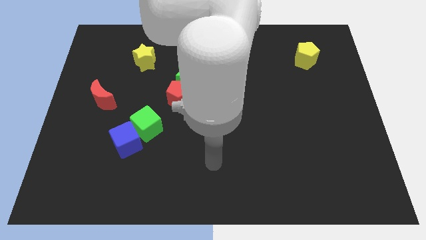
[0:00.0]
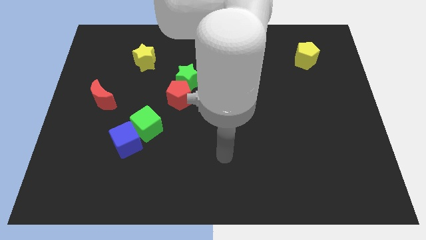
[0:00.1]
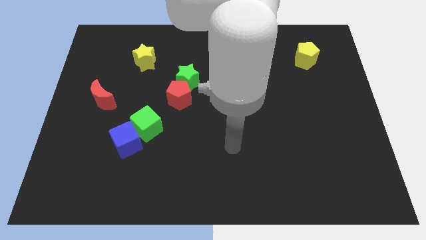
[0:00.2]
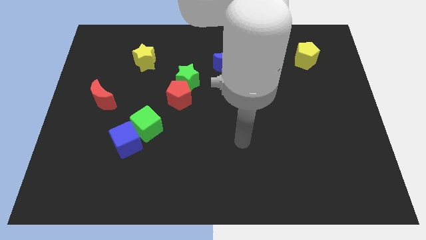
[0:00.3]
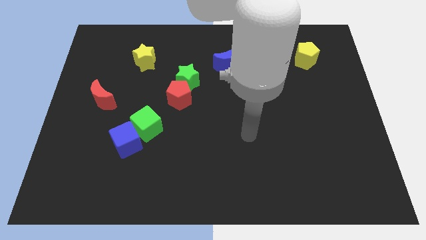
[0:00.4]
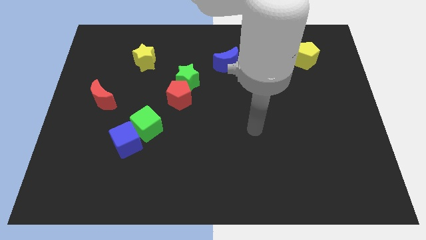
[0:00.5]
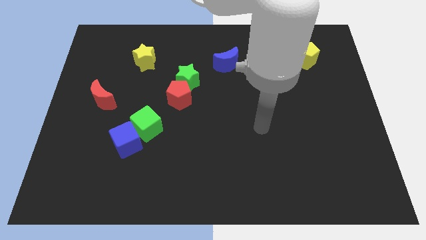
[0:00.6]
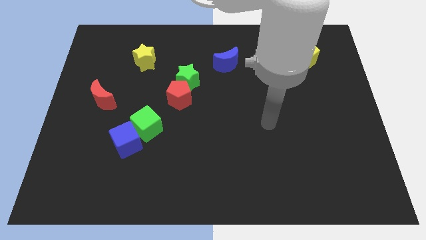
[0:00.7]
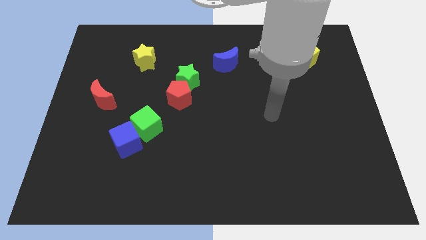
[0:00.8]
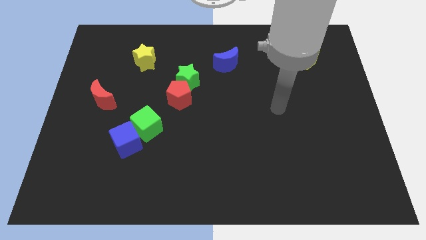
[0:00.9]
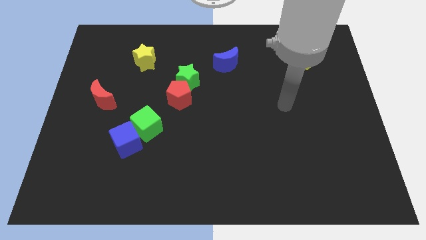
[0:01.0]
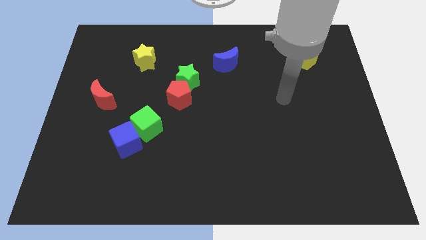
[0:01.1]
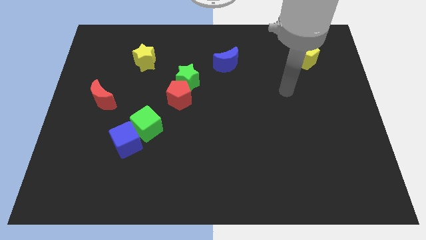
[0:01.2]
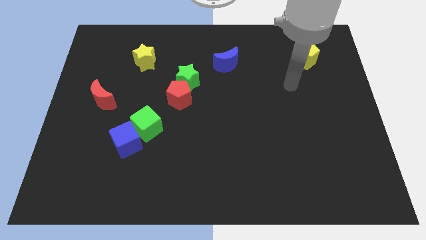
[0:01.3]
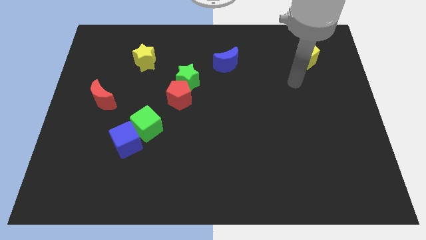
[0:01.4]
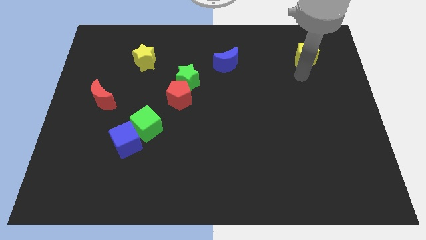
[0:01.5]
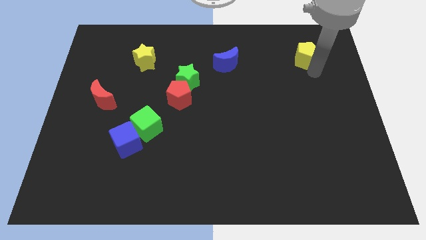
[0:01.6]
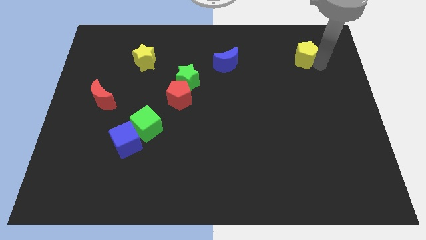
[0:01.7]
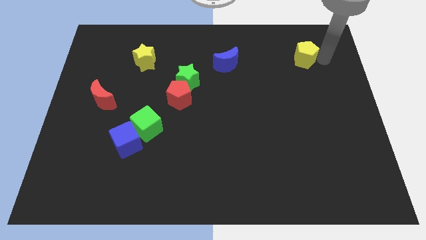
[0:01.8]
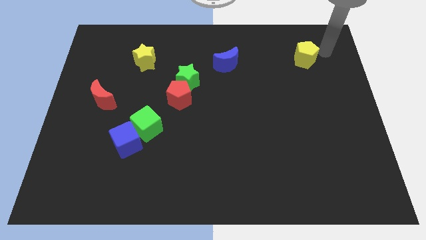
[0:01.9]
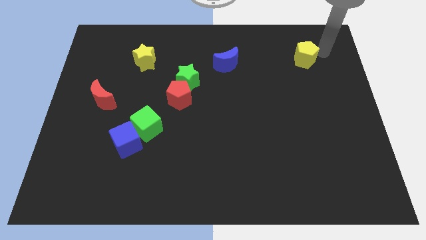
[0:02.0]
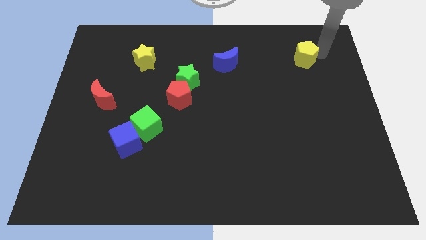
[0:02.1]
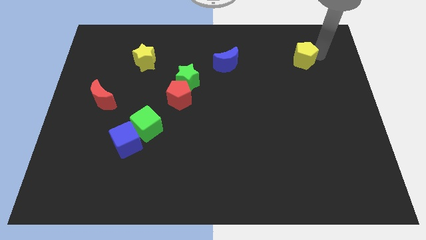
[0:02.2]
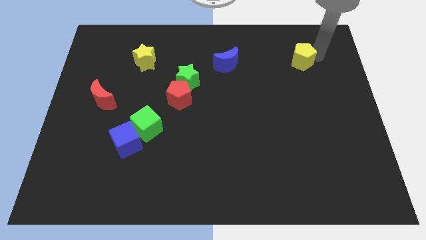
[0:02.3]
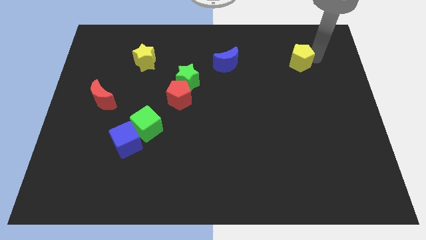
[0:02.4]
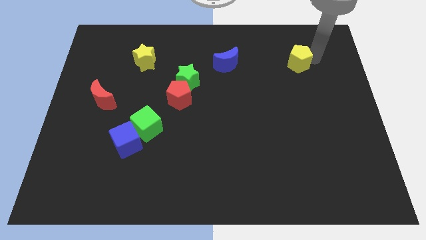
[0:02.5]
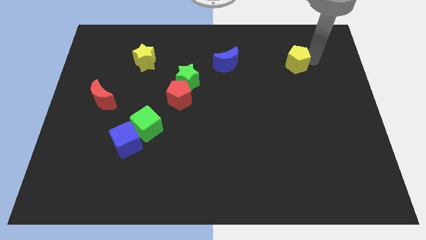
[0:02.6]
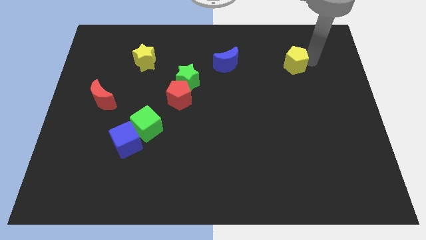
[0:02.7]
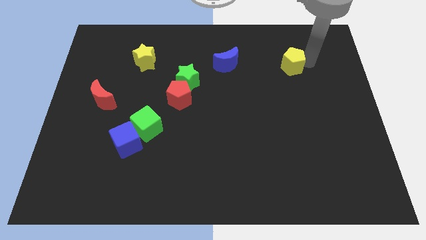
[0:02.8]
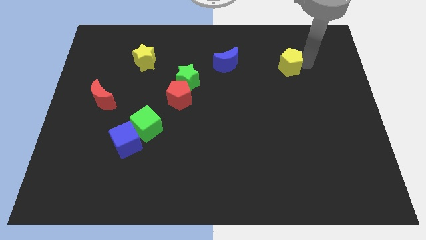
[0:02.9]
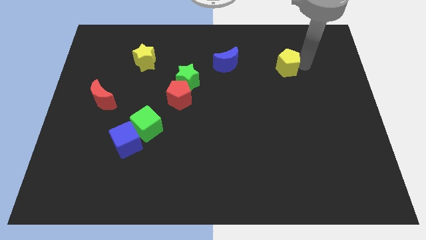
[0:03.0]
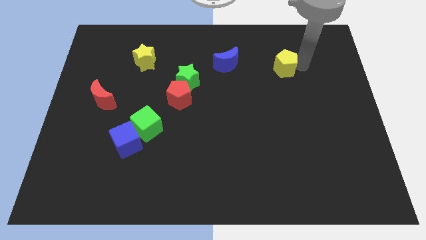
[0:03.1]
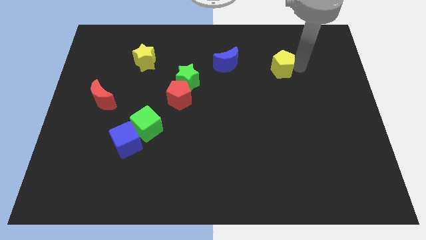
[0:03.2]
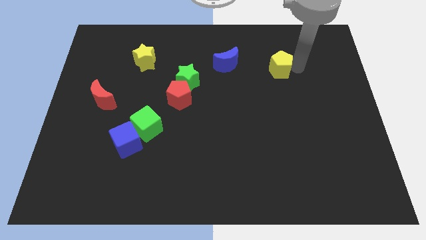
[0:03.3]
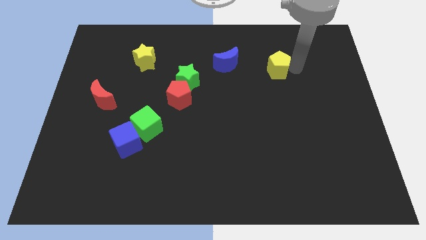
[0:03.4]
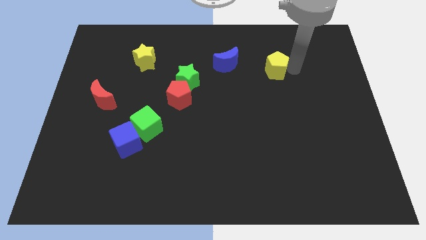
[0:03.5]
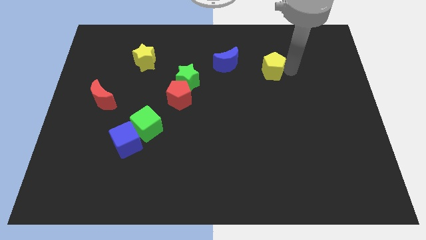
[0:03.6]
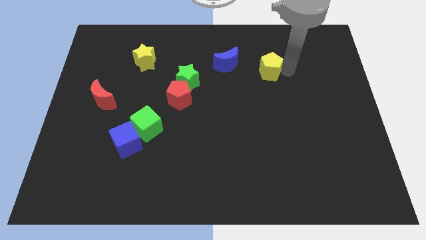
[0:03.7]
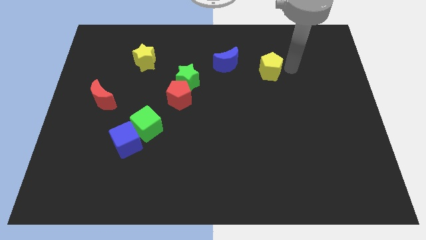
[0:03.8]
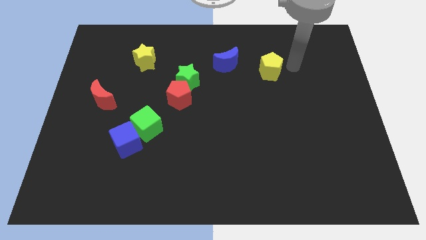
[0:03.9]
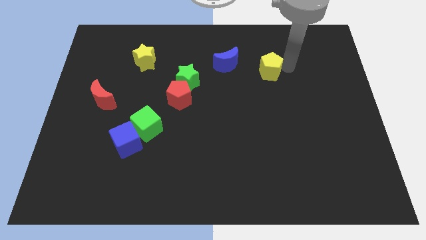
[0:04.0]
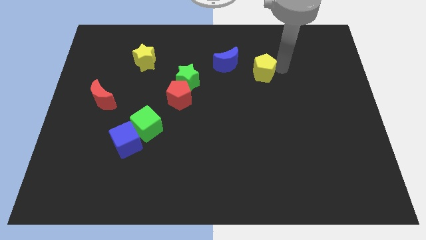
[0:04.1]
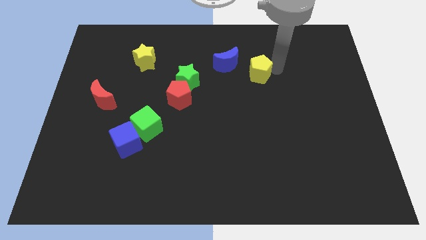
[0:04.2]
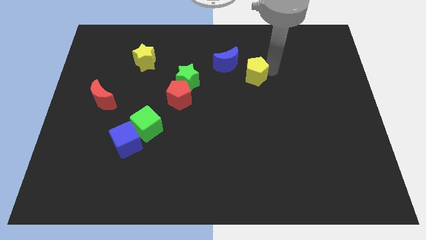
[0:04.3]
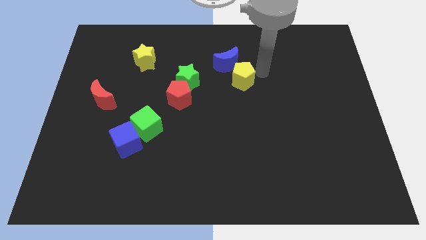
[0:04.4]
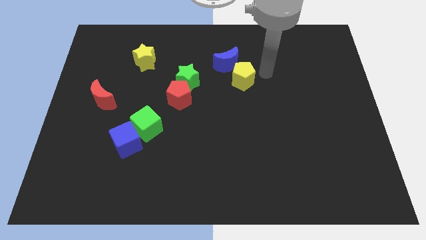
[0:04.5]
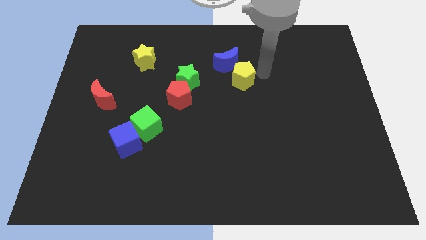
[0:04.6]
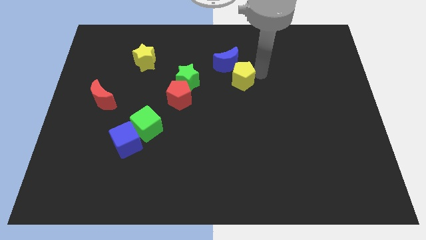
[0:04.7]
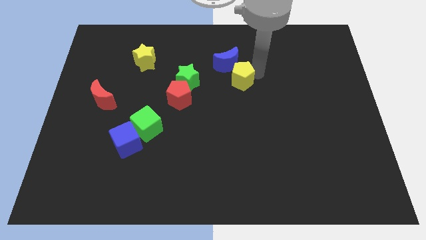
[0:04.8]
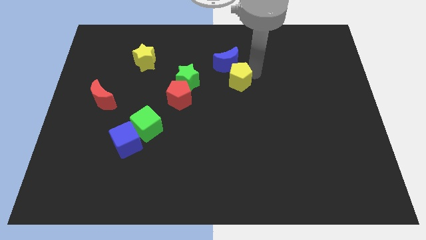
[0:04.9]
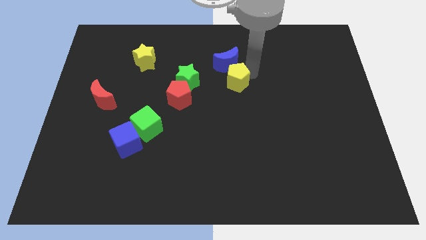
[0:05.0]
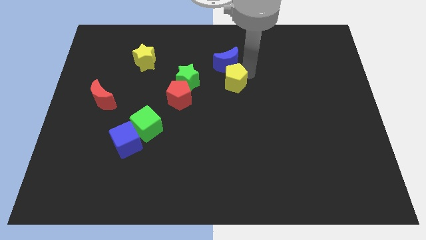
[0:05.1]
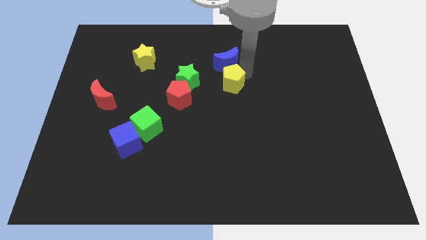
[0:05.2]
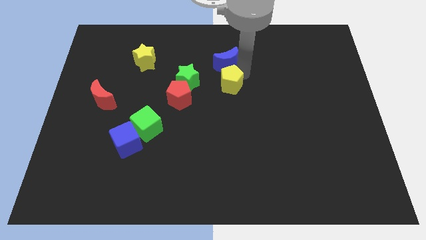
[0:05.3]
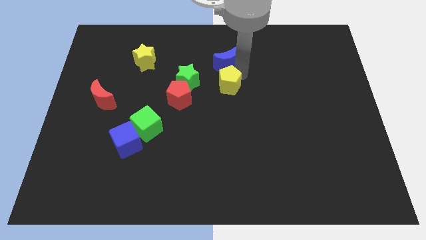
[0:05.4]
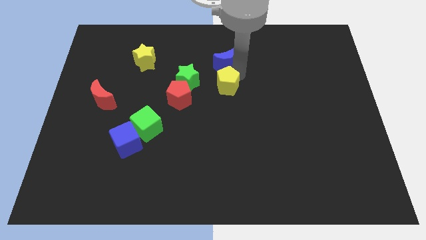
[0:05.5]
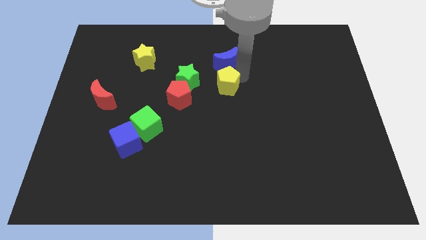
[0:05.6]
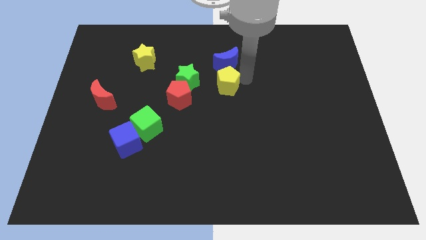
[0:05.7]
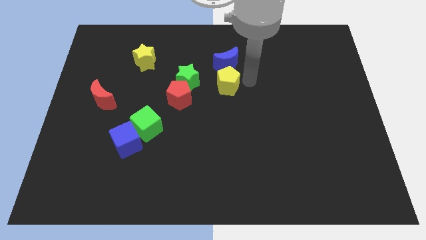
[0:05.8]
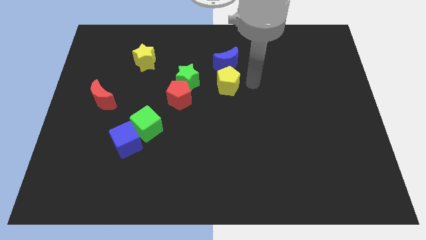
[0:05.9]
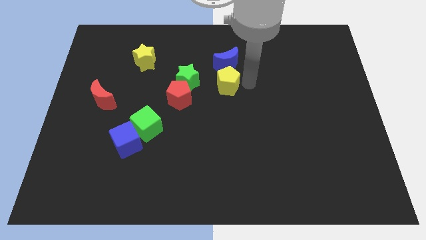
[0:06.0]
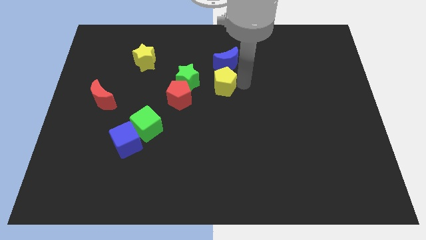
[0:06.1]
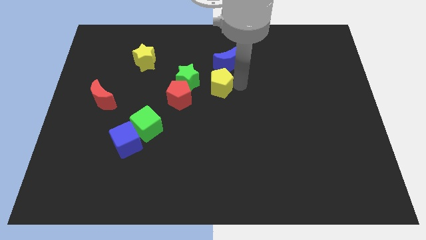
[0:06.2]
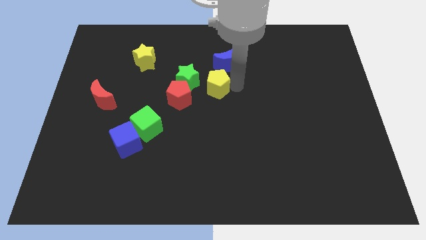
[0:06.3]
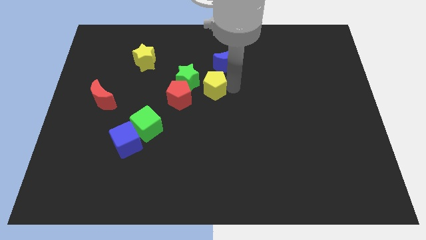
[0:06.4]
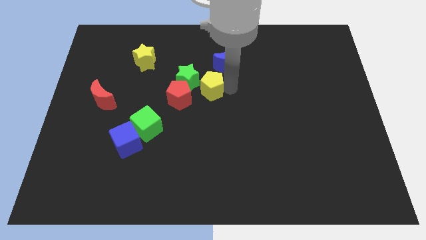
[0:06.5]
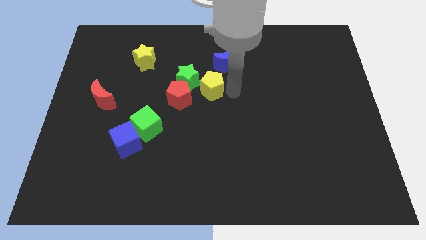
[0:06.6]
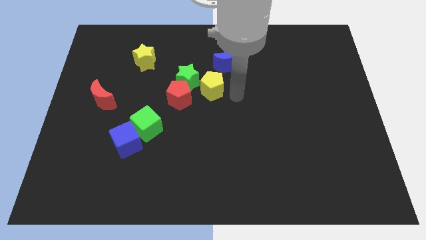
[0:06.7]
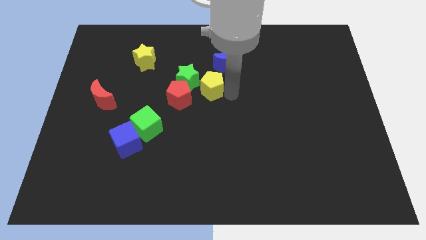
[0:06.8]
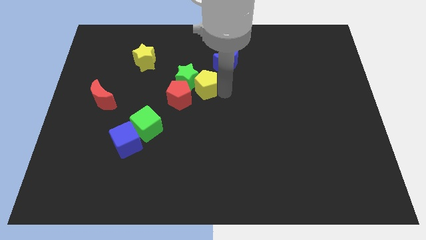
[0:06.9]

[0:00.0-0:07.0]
push the yellow pentagon next to the green star
